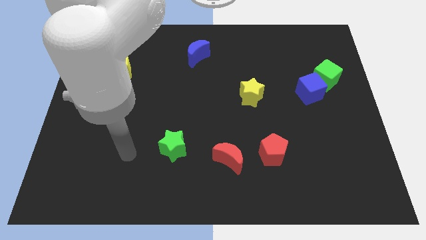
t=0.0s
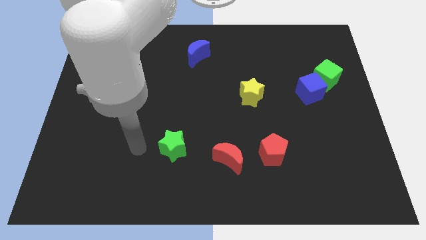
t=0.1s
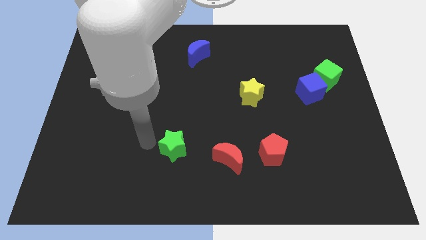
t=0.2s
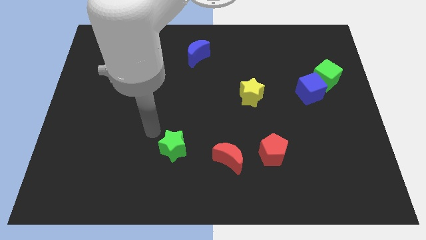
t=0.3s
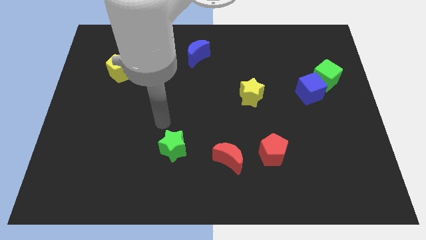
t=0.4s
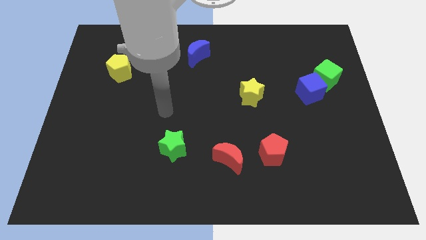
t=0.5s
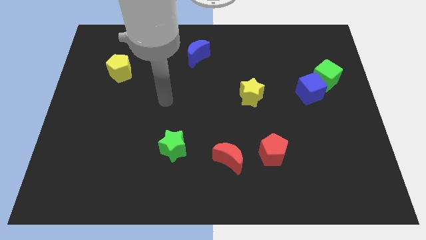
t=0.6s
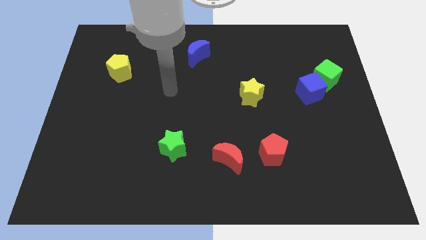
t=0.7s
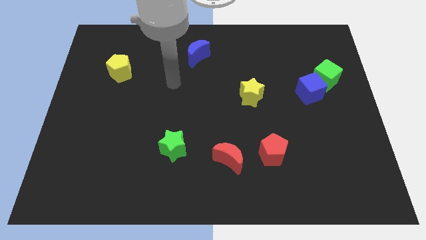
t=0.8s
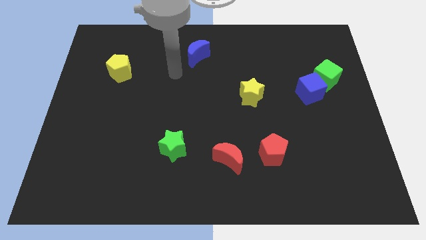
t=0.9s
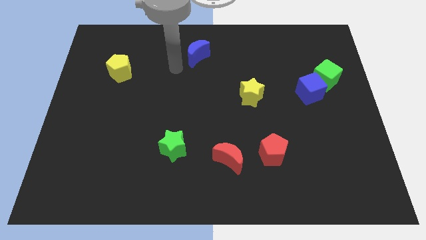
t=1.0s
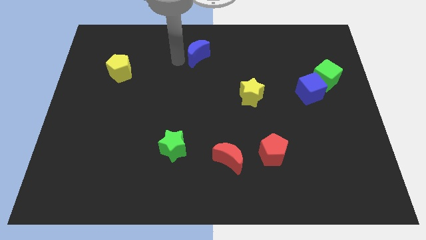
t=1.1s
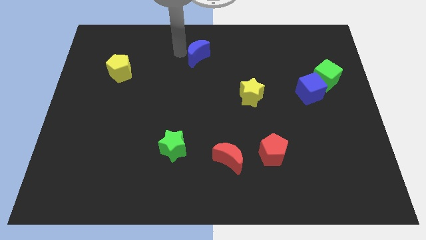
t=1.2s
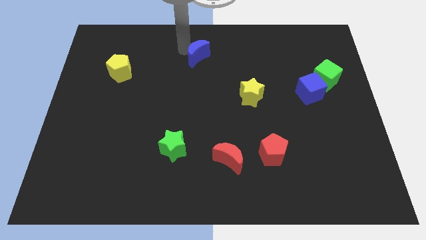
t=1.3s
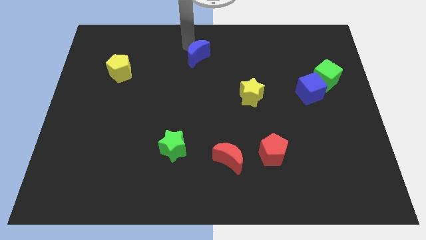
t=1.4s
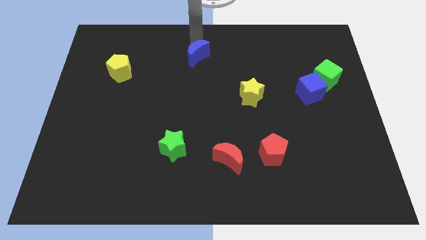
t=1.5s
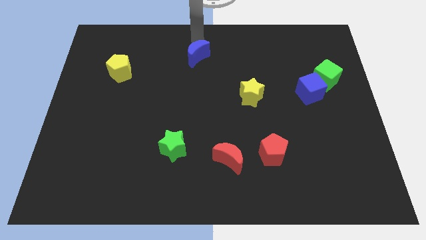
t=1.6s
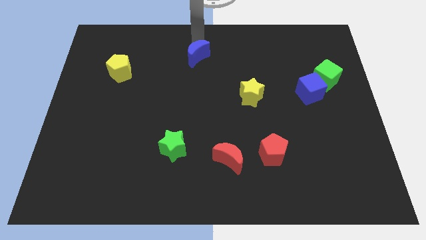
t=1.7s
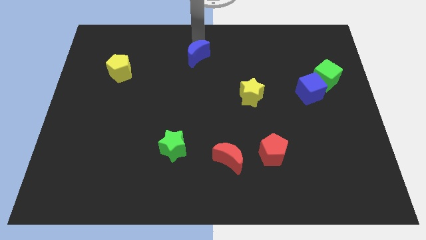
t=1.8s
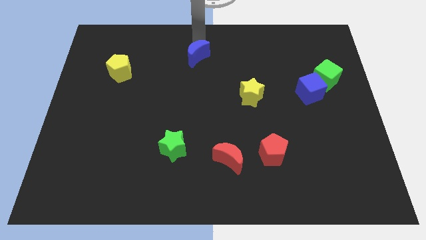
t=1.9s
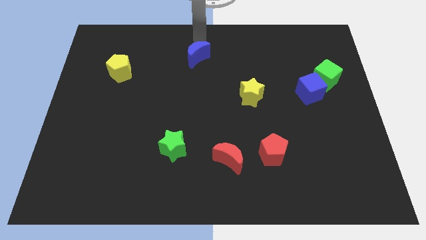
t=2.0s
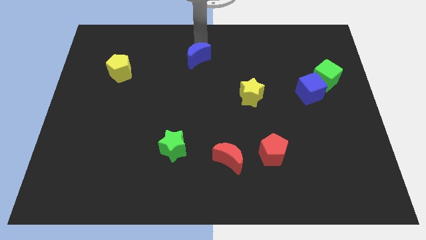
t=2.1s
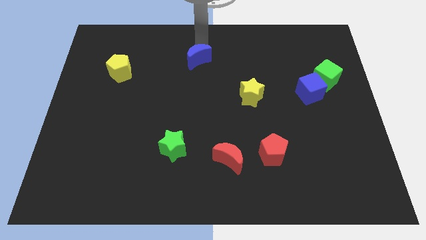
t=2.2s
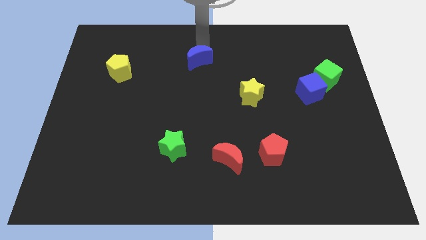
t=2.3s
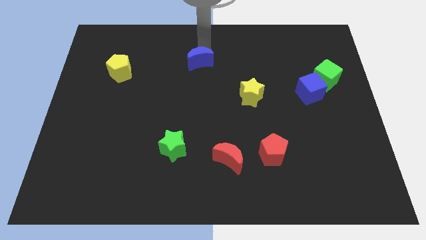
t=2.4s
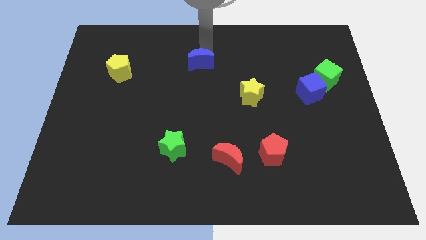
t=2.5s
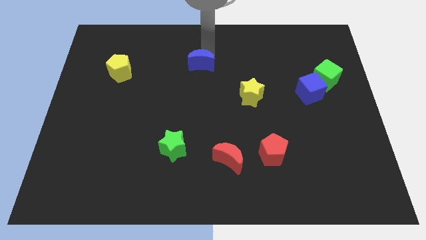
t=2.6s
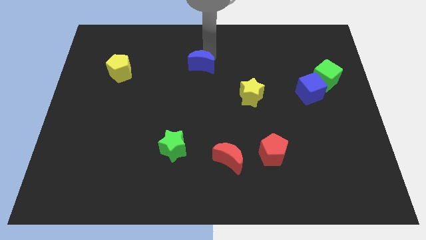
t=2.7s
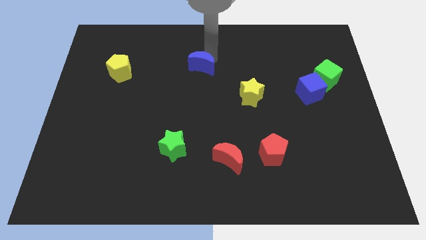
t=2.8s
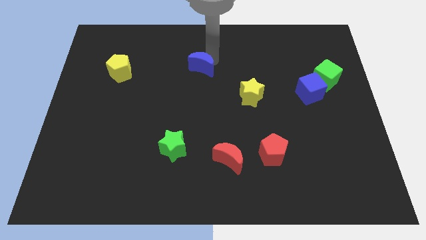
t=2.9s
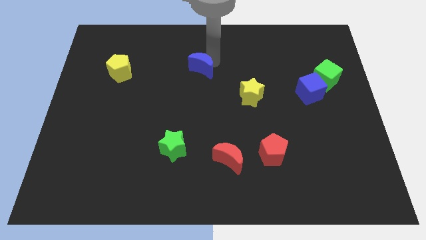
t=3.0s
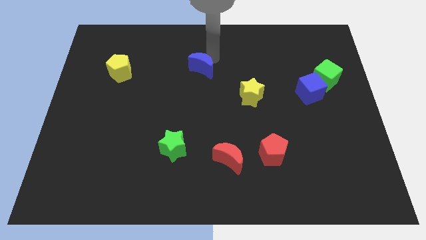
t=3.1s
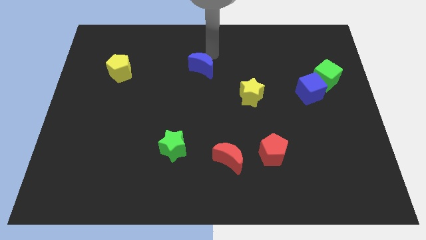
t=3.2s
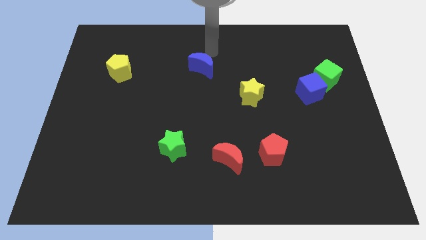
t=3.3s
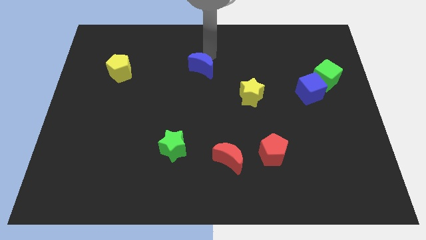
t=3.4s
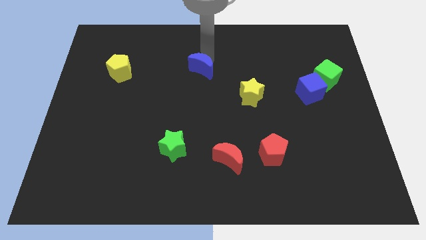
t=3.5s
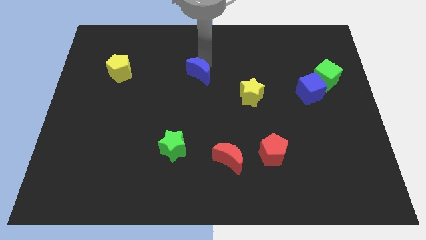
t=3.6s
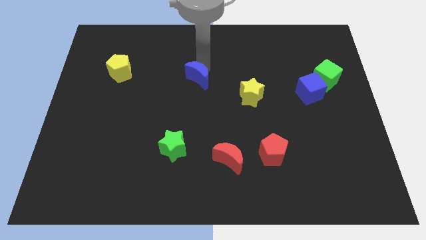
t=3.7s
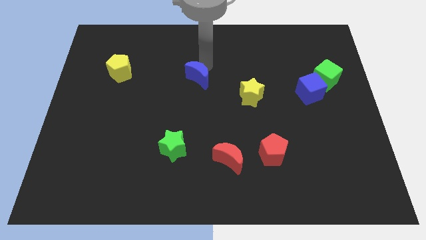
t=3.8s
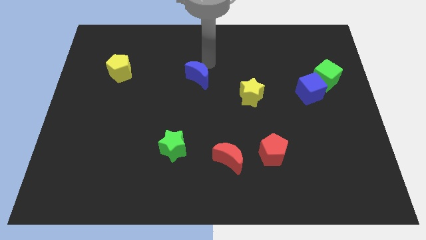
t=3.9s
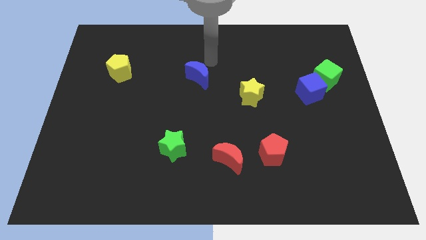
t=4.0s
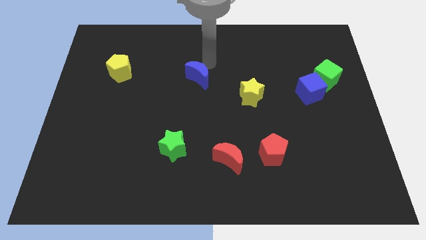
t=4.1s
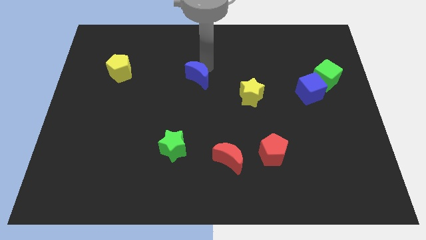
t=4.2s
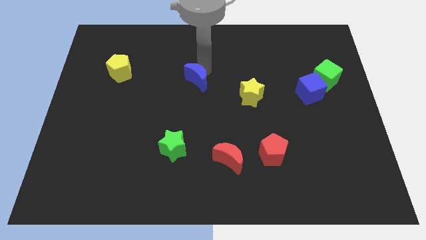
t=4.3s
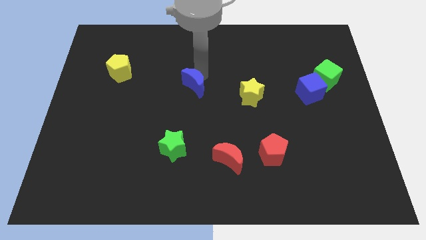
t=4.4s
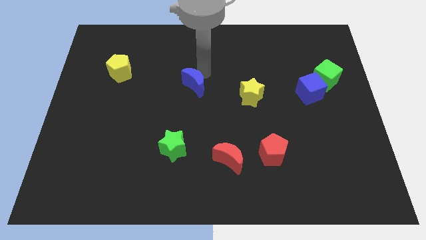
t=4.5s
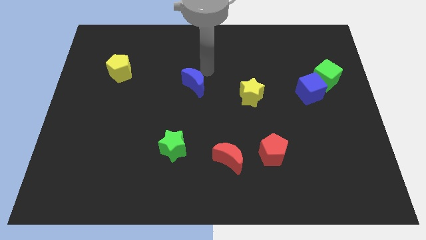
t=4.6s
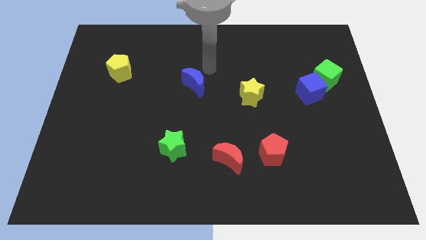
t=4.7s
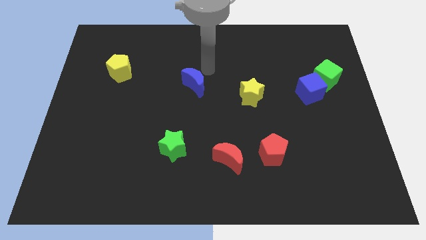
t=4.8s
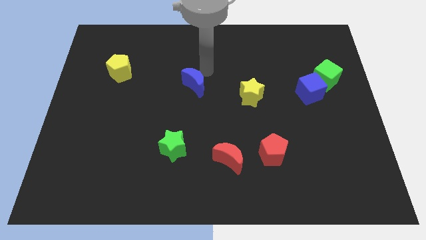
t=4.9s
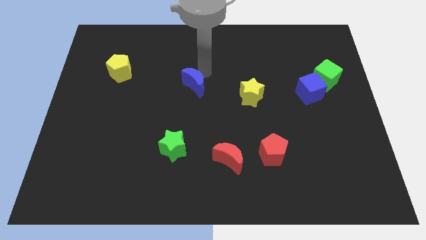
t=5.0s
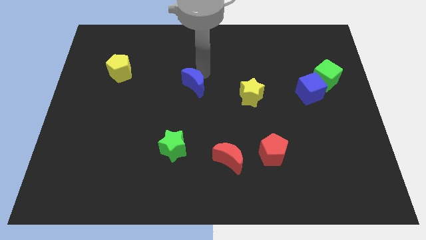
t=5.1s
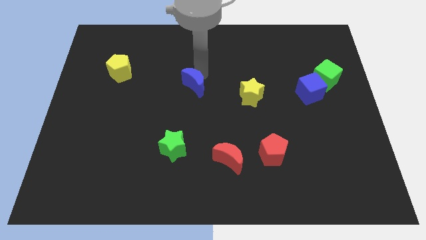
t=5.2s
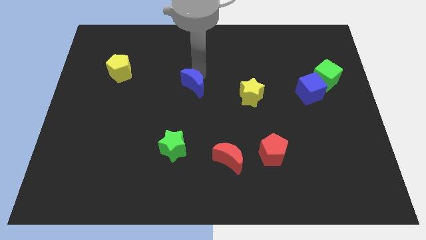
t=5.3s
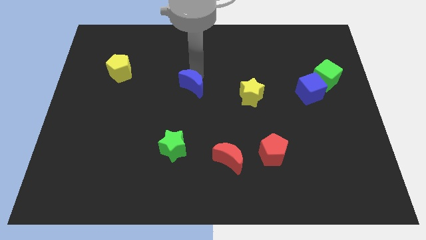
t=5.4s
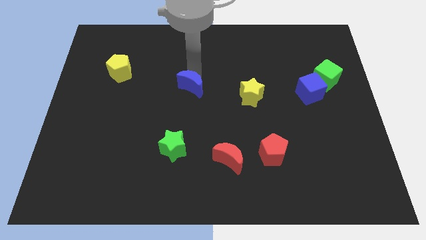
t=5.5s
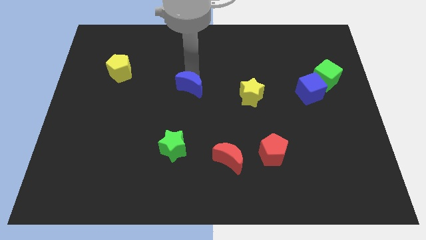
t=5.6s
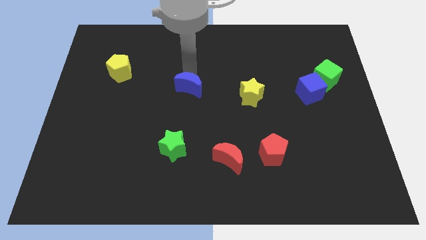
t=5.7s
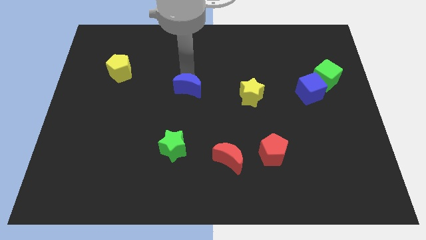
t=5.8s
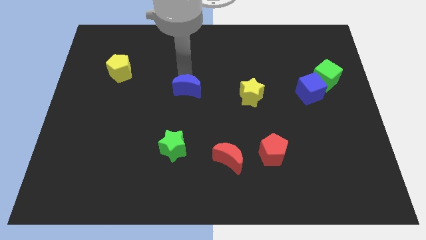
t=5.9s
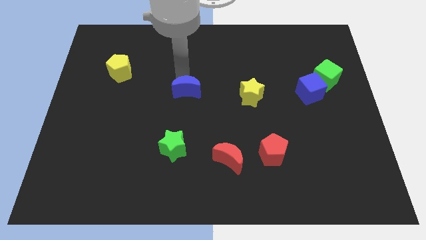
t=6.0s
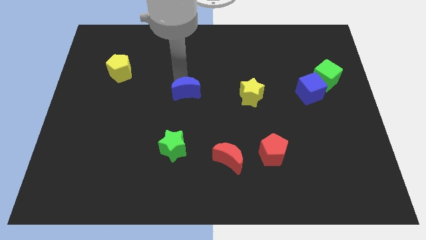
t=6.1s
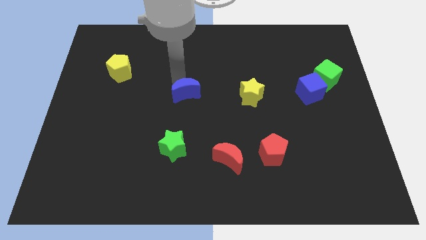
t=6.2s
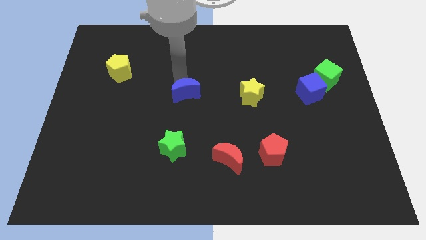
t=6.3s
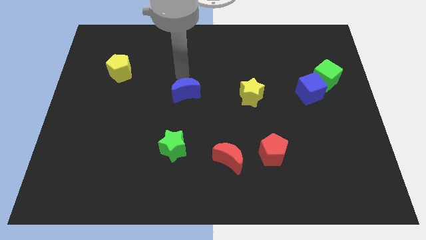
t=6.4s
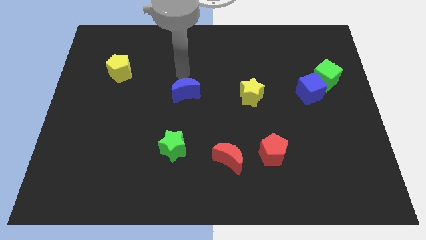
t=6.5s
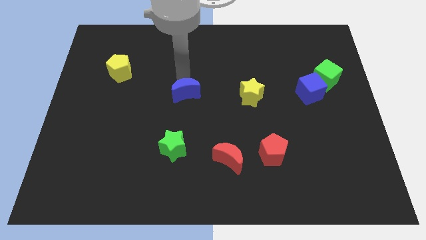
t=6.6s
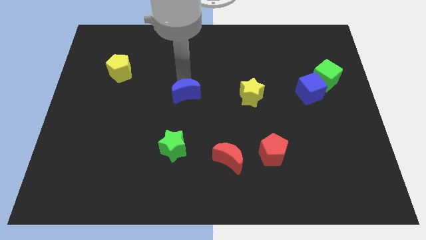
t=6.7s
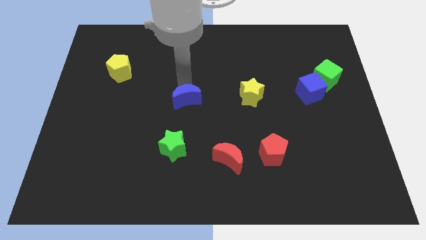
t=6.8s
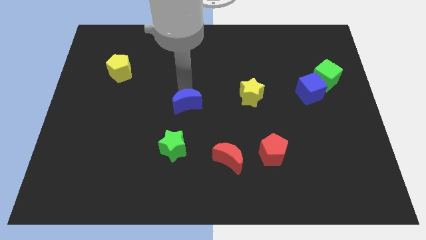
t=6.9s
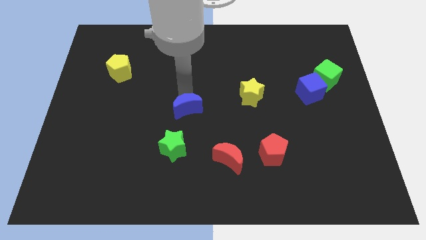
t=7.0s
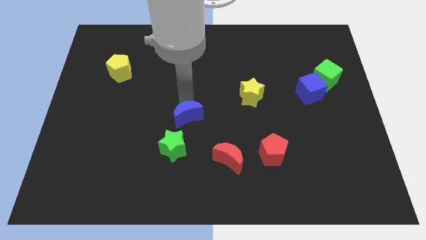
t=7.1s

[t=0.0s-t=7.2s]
push the blue moon down
